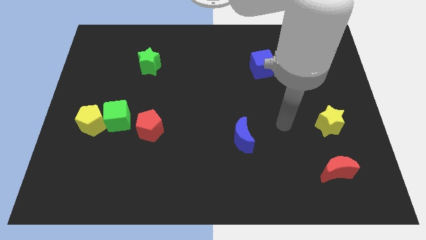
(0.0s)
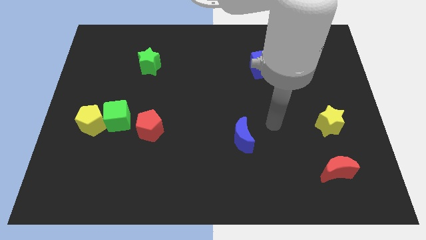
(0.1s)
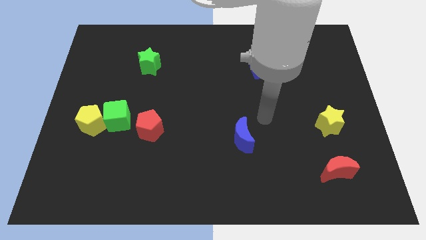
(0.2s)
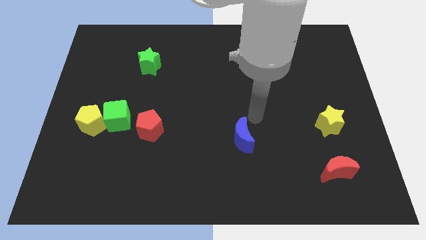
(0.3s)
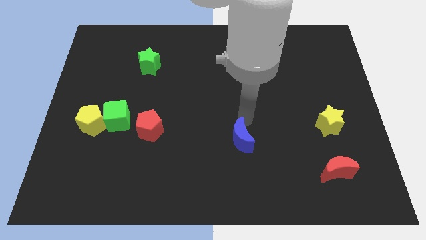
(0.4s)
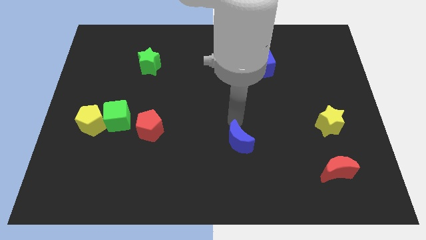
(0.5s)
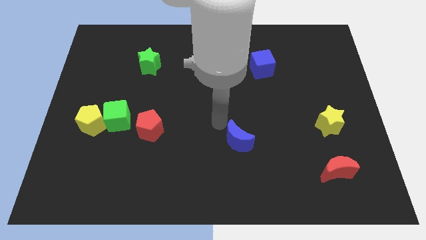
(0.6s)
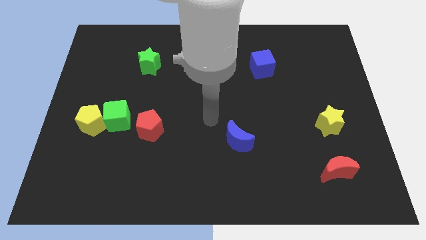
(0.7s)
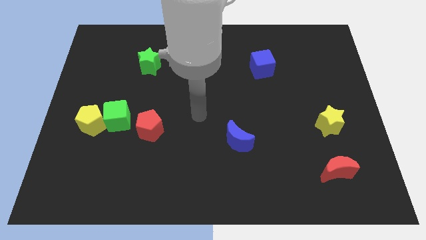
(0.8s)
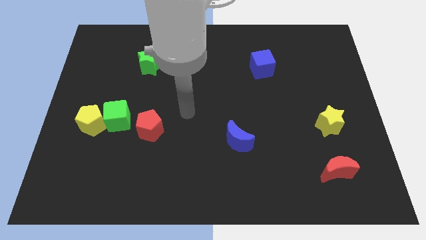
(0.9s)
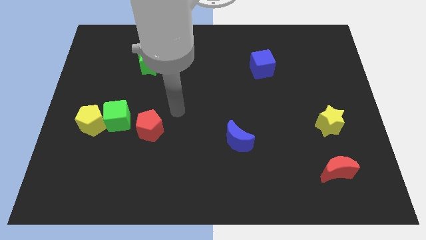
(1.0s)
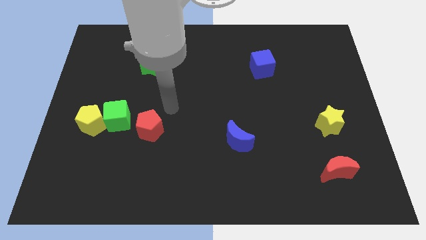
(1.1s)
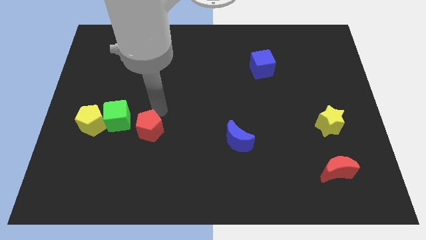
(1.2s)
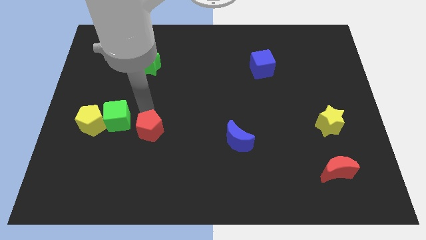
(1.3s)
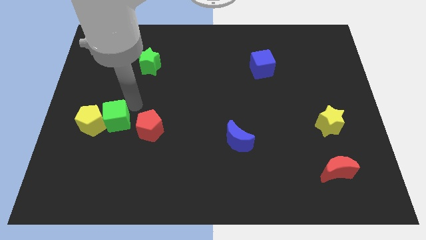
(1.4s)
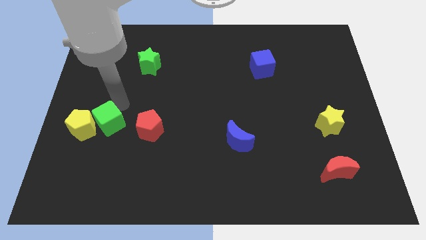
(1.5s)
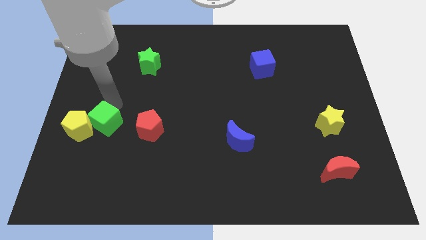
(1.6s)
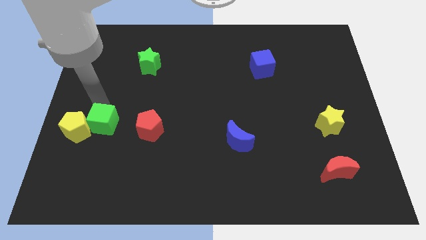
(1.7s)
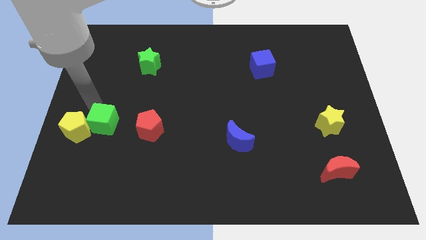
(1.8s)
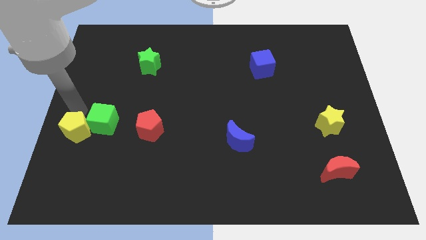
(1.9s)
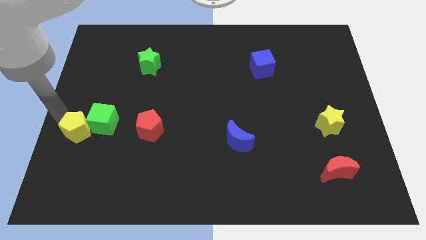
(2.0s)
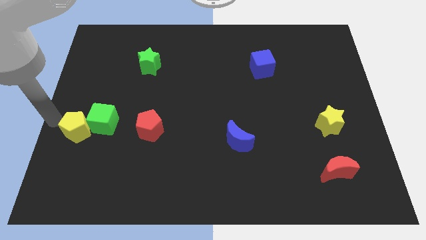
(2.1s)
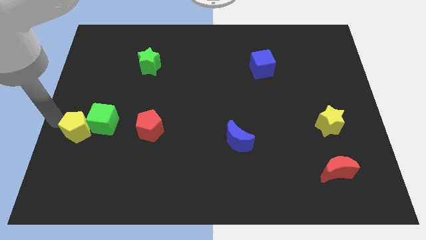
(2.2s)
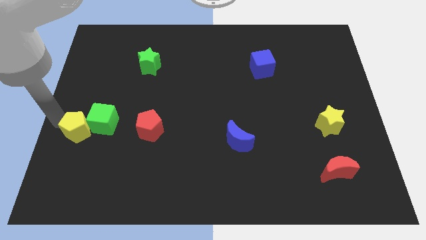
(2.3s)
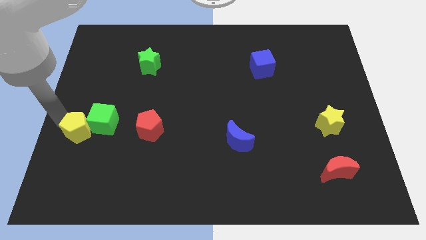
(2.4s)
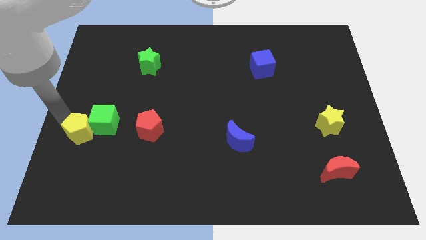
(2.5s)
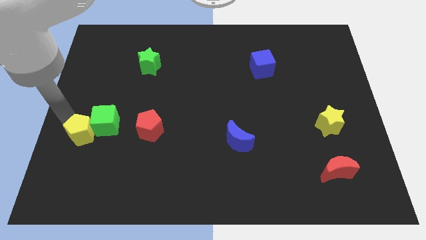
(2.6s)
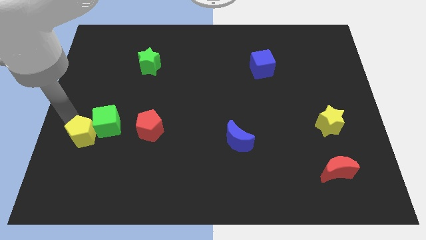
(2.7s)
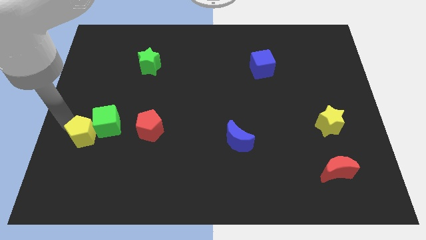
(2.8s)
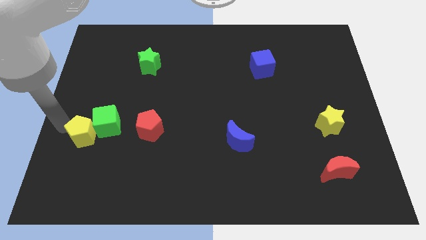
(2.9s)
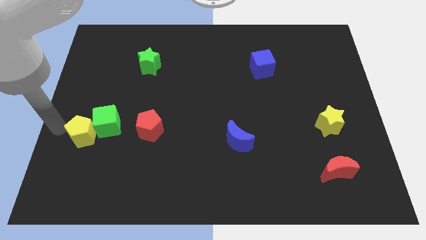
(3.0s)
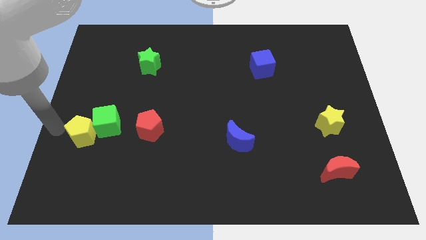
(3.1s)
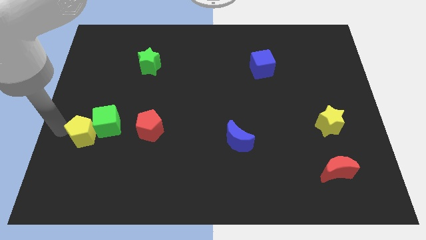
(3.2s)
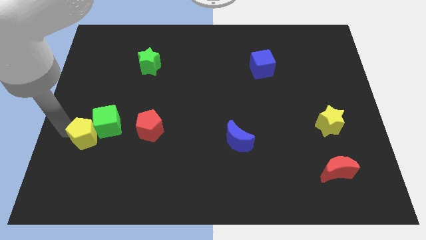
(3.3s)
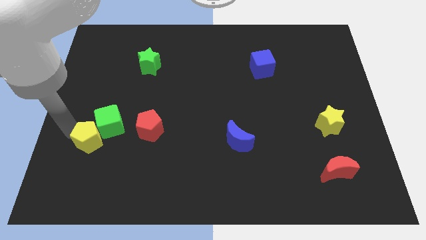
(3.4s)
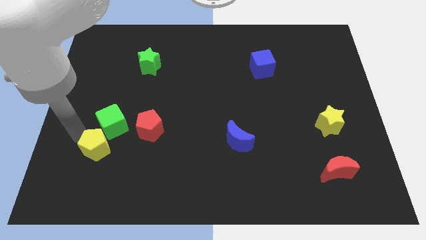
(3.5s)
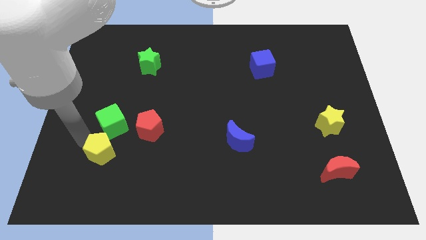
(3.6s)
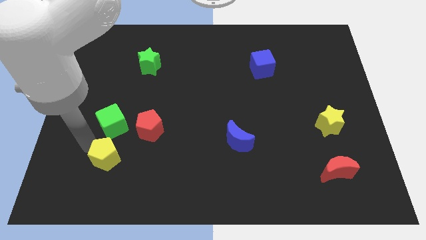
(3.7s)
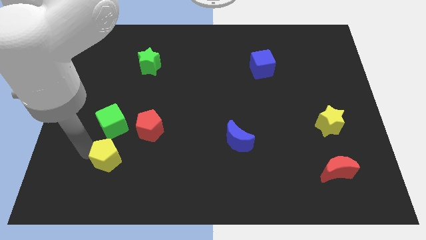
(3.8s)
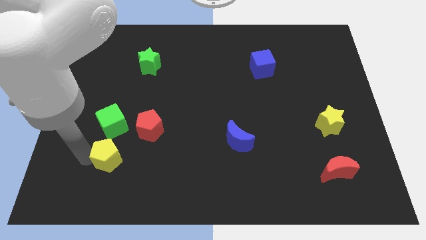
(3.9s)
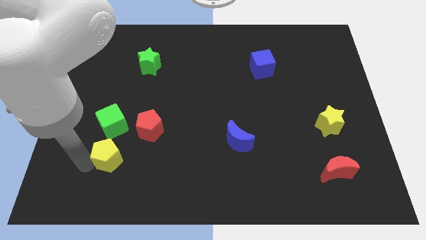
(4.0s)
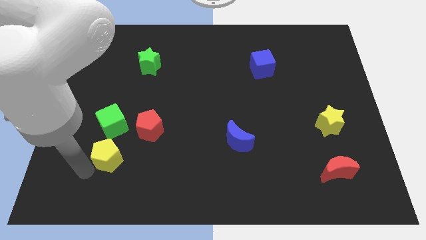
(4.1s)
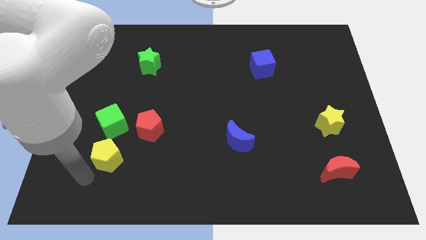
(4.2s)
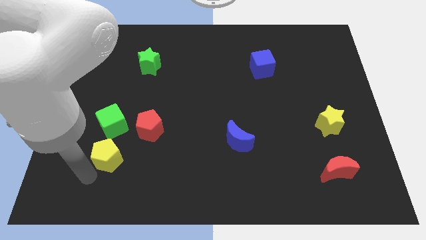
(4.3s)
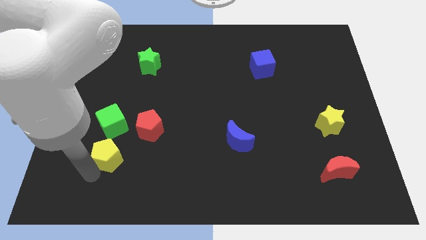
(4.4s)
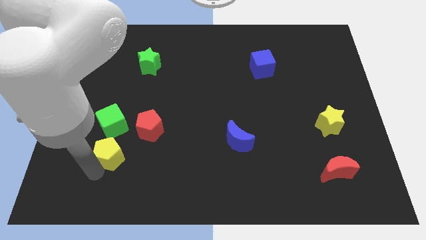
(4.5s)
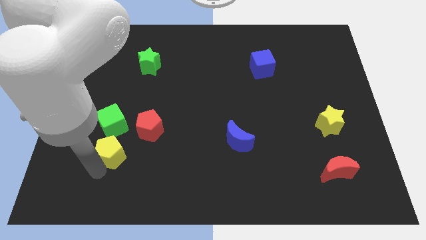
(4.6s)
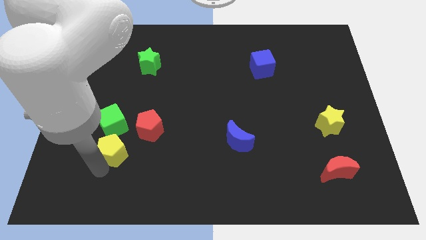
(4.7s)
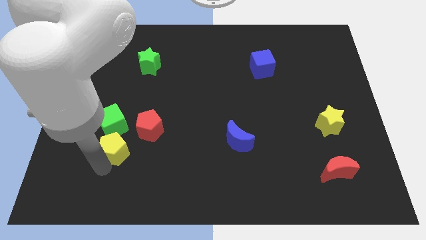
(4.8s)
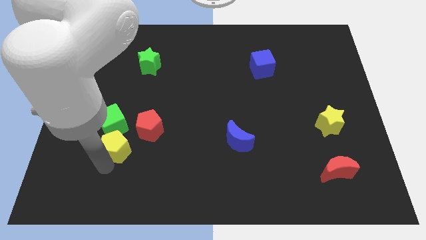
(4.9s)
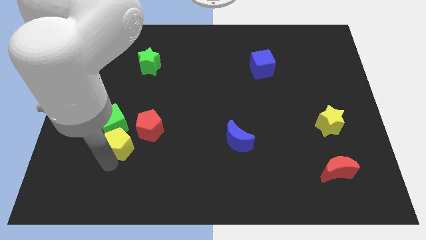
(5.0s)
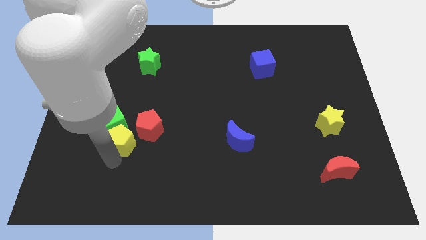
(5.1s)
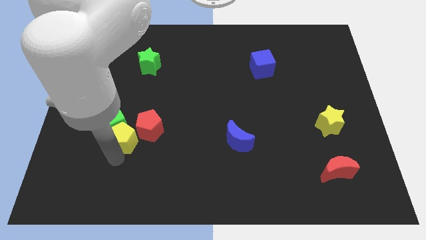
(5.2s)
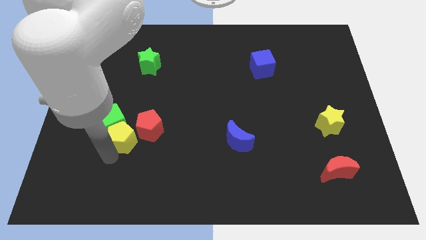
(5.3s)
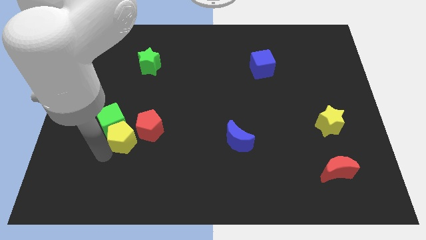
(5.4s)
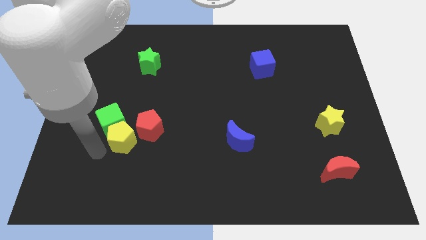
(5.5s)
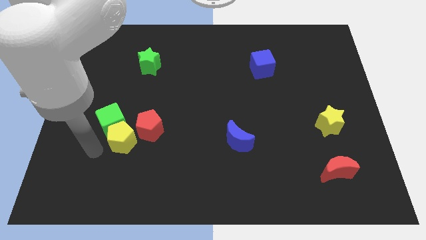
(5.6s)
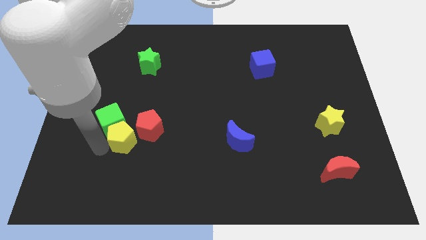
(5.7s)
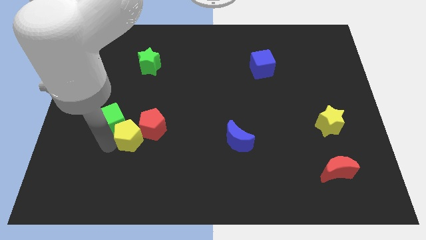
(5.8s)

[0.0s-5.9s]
put the yellow pentagon next to the red pentagon

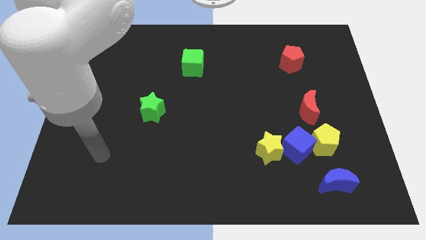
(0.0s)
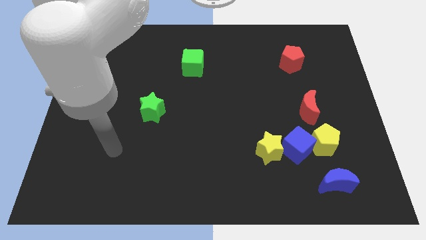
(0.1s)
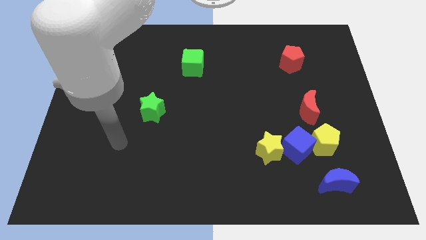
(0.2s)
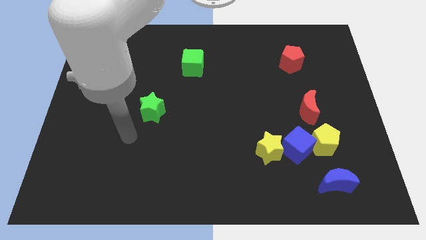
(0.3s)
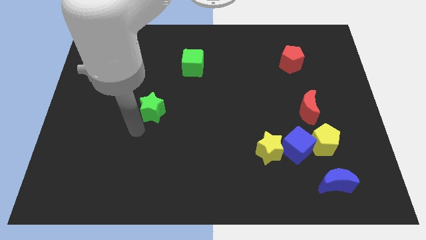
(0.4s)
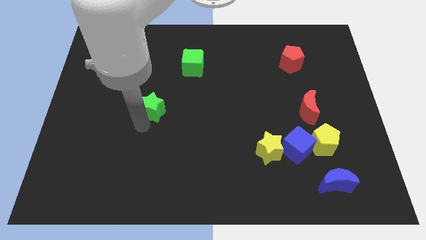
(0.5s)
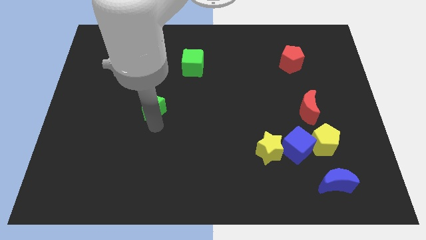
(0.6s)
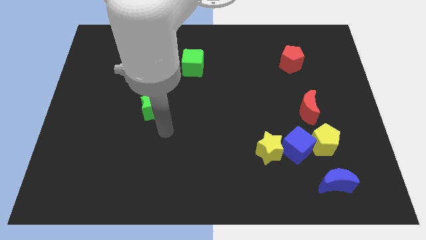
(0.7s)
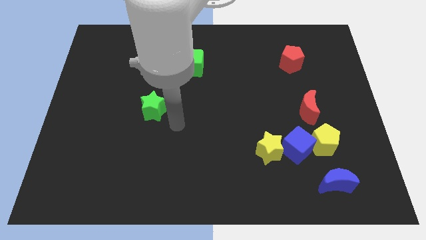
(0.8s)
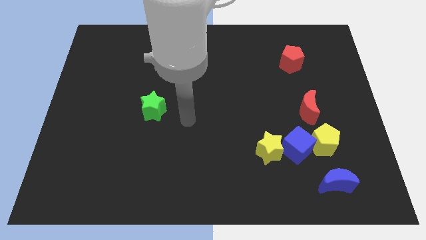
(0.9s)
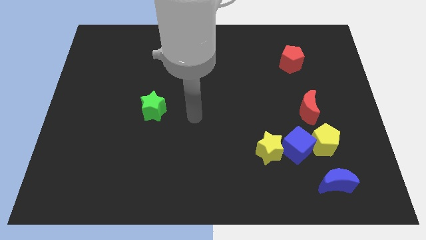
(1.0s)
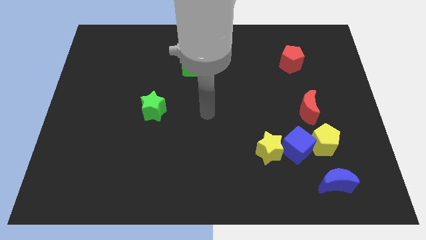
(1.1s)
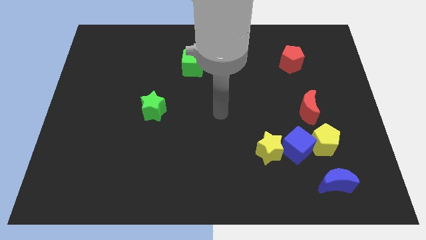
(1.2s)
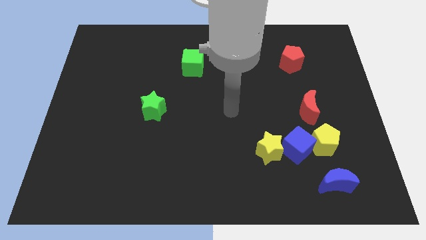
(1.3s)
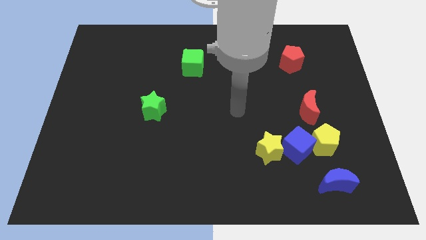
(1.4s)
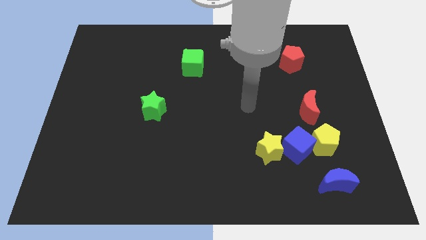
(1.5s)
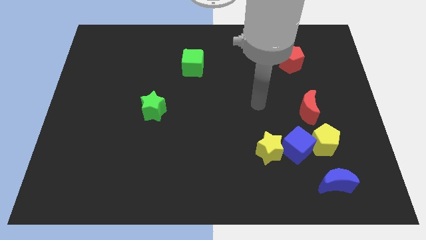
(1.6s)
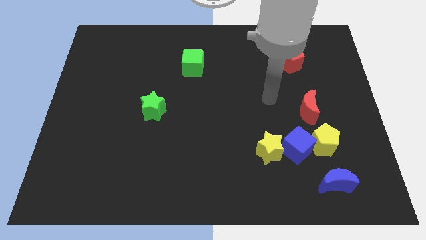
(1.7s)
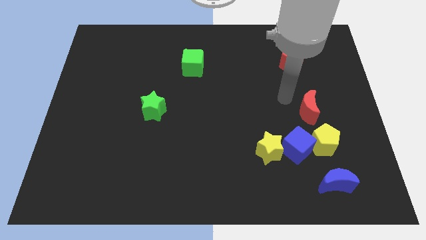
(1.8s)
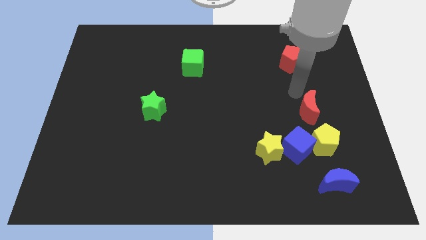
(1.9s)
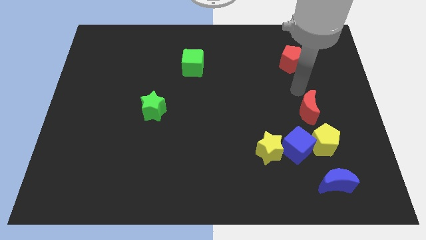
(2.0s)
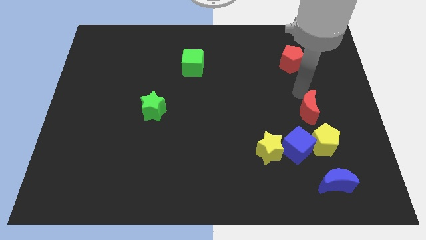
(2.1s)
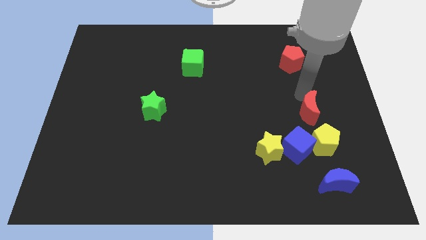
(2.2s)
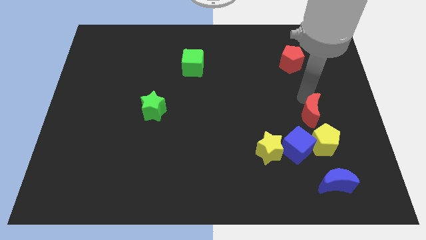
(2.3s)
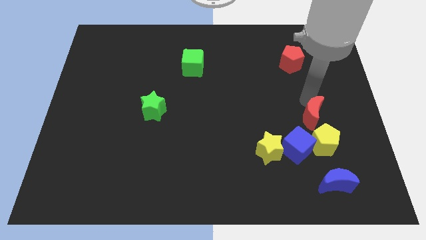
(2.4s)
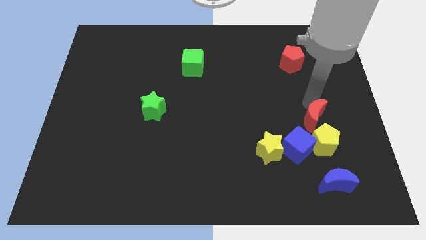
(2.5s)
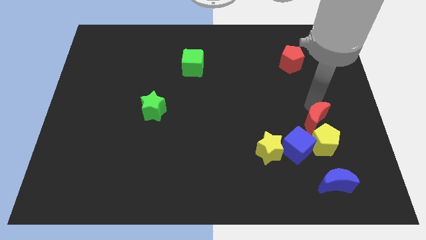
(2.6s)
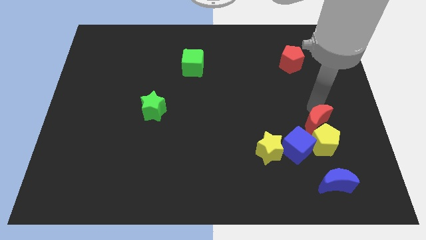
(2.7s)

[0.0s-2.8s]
push the red moon towards the yellow pentagon
